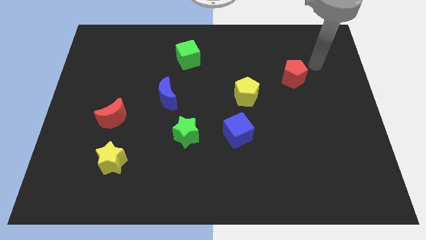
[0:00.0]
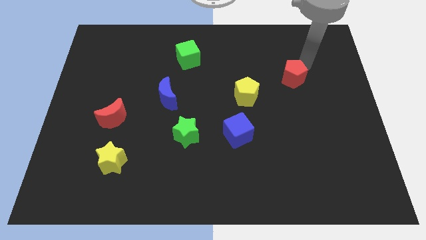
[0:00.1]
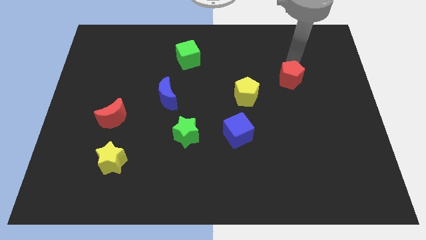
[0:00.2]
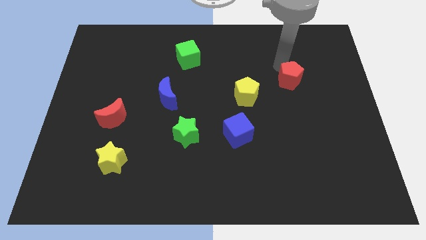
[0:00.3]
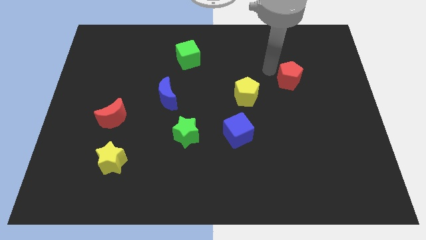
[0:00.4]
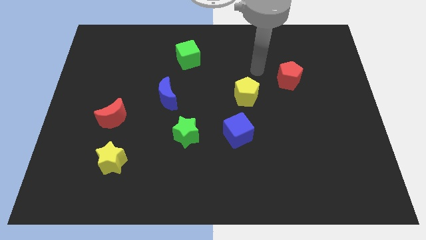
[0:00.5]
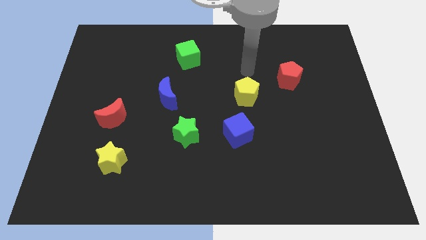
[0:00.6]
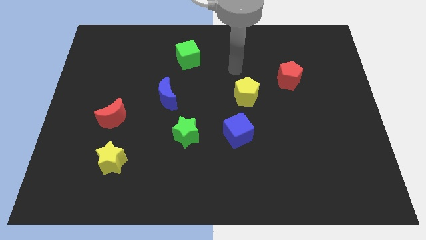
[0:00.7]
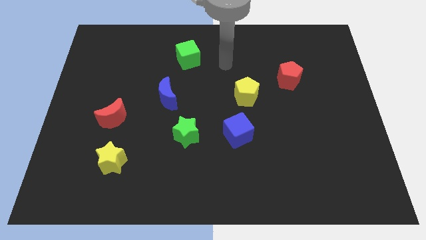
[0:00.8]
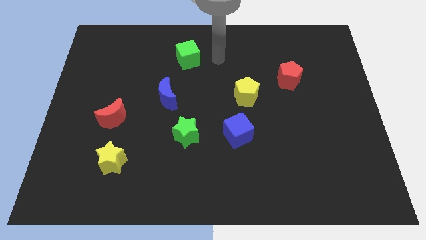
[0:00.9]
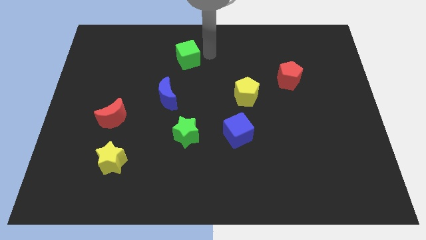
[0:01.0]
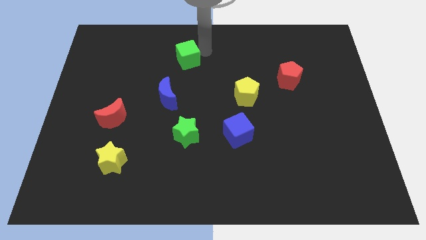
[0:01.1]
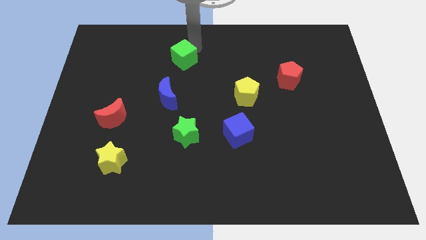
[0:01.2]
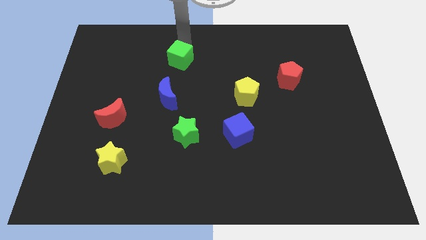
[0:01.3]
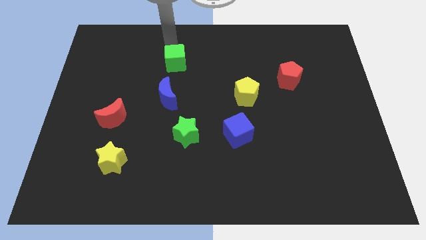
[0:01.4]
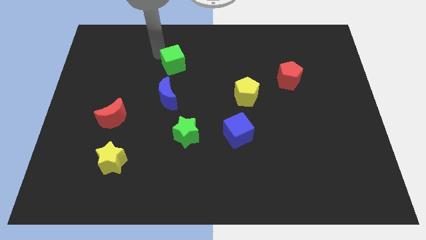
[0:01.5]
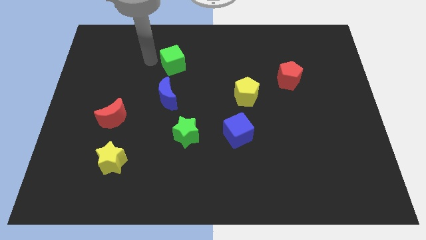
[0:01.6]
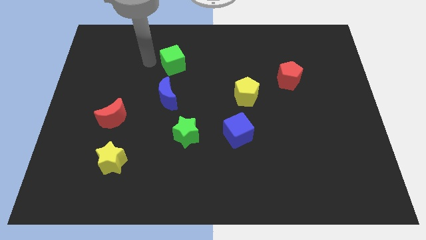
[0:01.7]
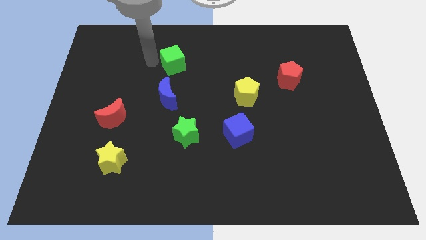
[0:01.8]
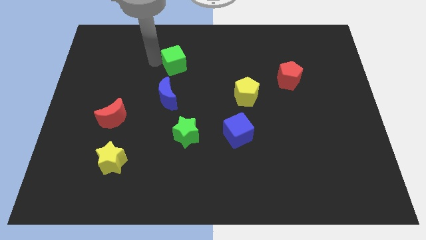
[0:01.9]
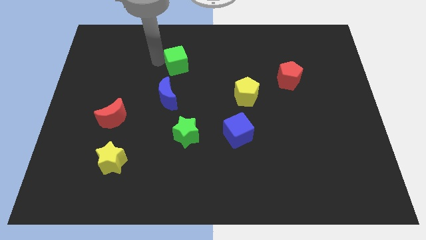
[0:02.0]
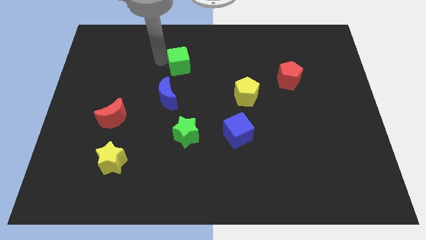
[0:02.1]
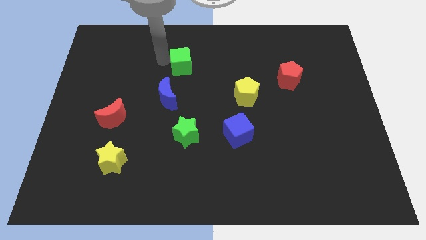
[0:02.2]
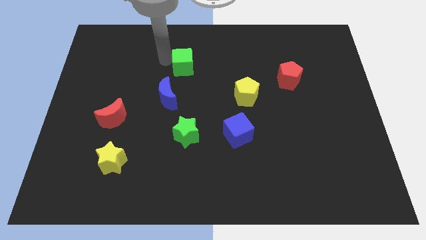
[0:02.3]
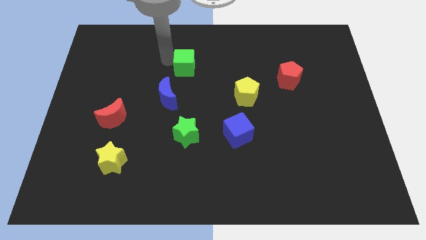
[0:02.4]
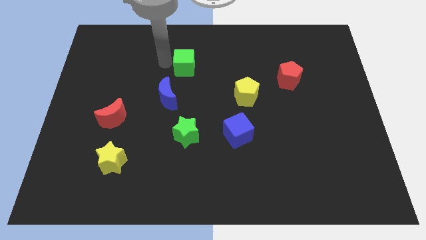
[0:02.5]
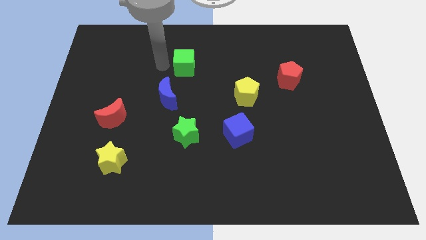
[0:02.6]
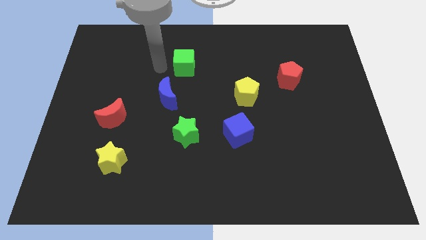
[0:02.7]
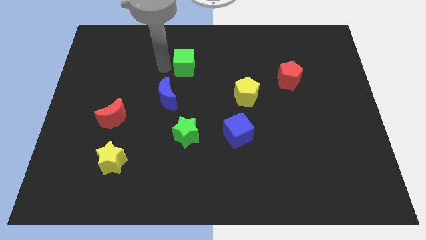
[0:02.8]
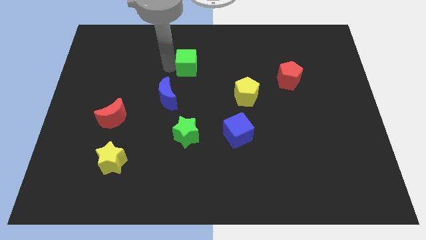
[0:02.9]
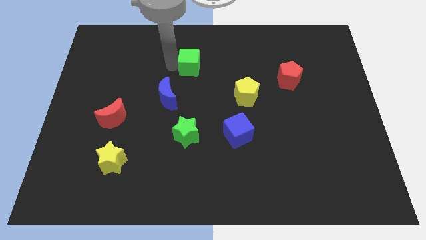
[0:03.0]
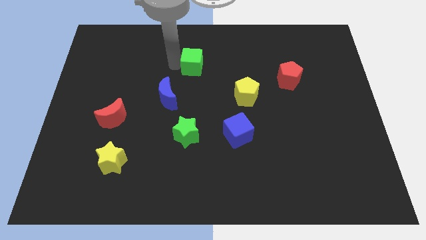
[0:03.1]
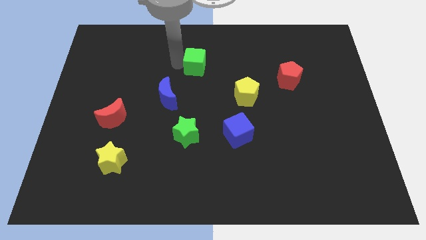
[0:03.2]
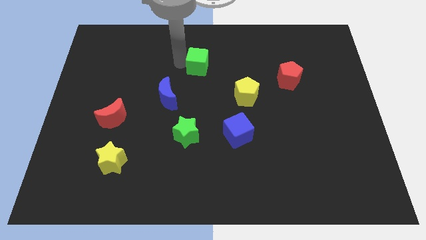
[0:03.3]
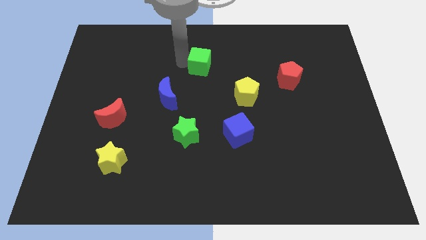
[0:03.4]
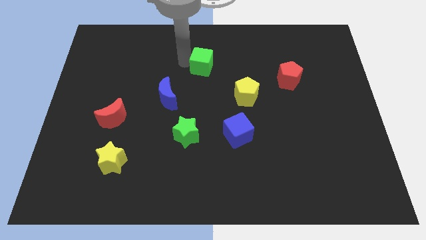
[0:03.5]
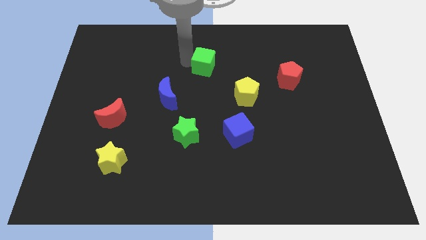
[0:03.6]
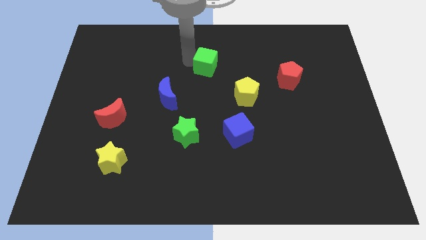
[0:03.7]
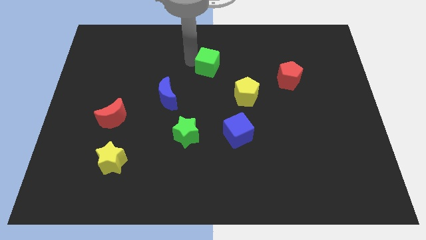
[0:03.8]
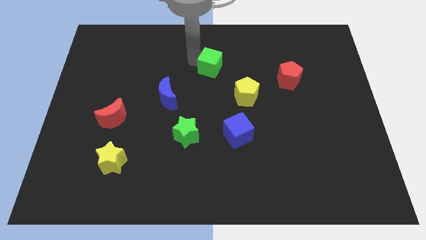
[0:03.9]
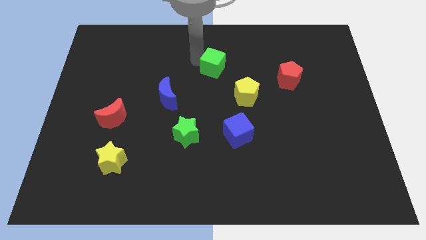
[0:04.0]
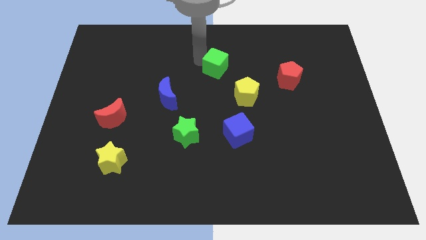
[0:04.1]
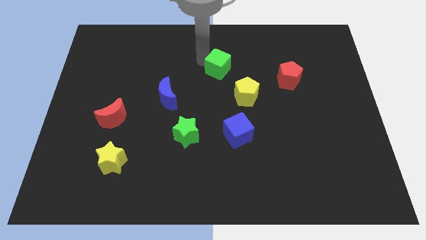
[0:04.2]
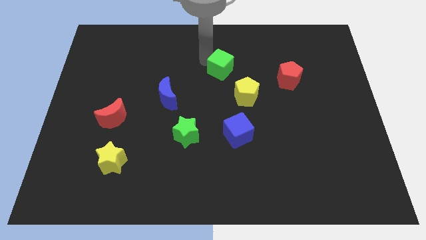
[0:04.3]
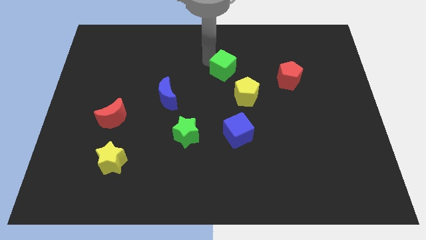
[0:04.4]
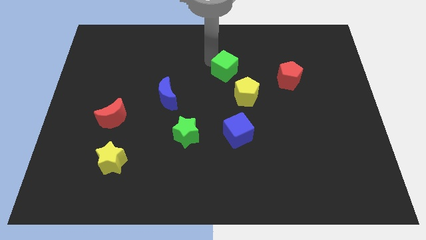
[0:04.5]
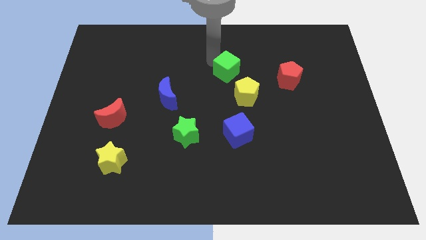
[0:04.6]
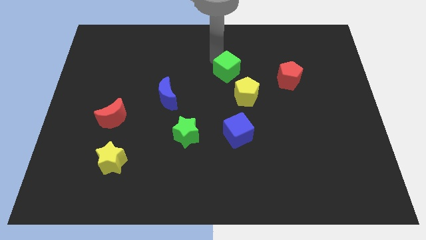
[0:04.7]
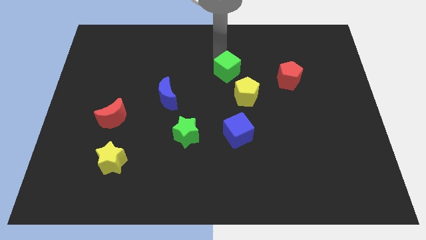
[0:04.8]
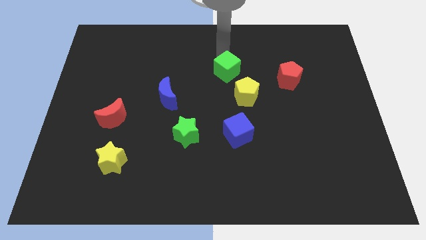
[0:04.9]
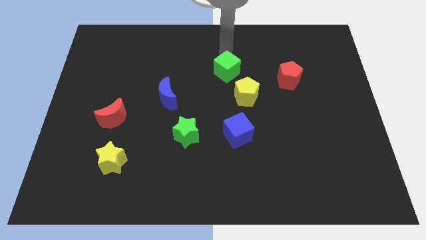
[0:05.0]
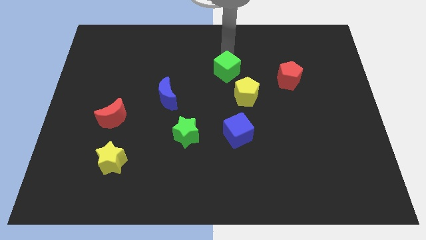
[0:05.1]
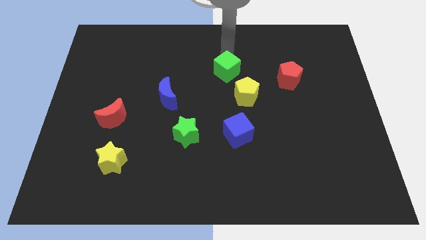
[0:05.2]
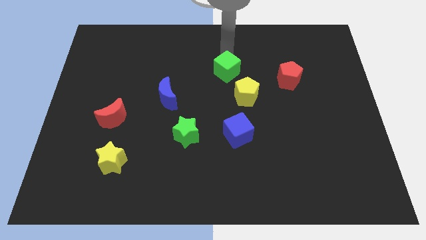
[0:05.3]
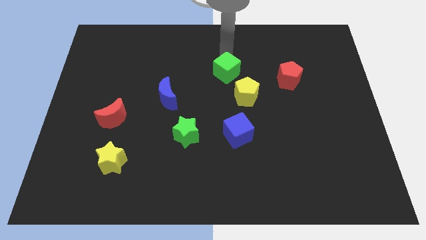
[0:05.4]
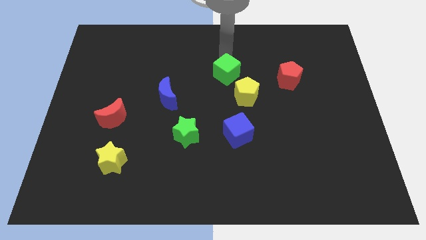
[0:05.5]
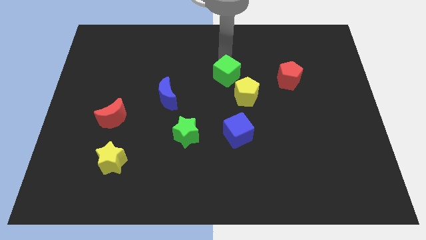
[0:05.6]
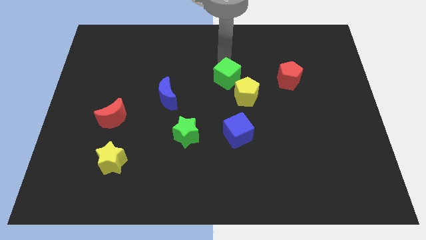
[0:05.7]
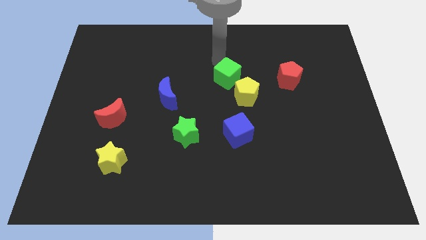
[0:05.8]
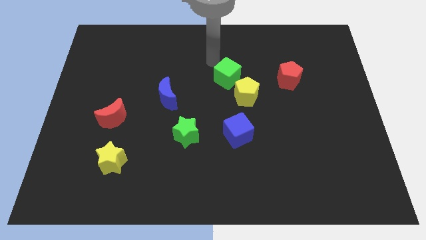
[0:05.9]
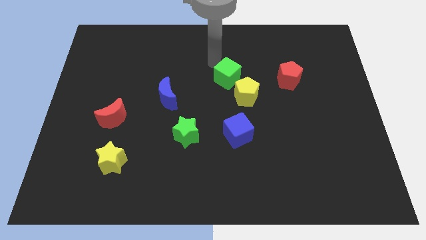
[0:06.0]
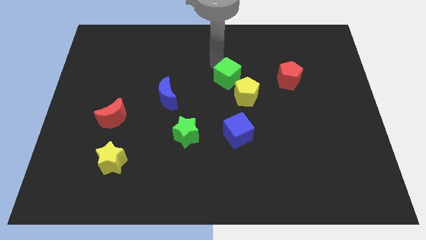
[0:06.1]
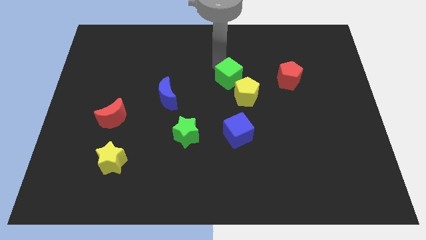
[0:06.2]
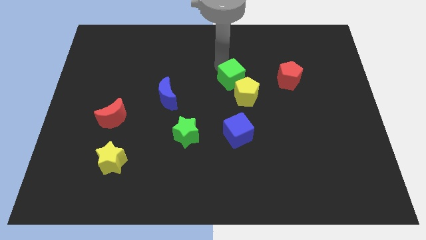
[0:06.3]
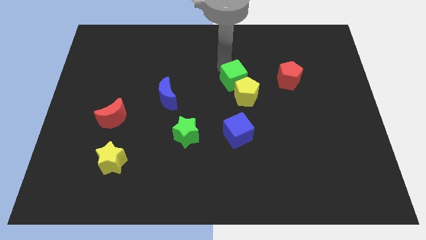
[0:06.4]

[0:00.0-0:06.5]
slide the green cube next to the yellow pentagon
